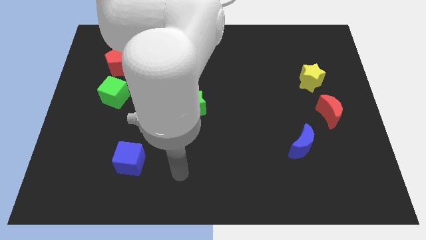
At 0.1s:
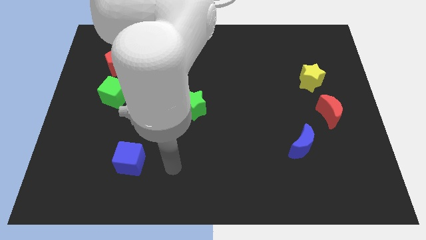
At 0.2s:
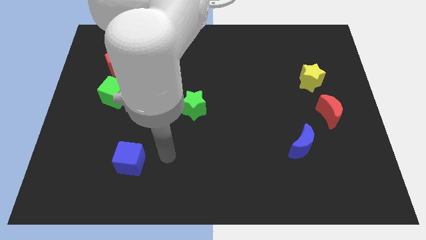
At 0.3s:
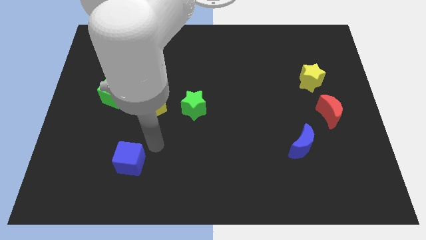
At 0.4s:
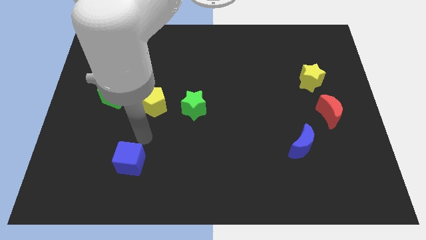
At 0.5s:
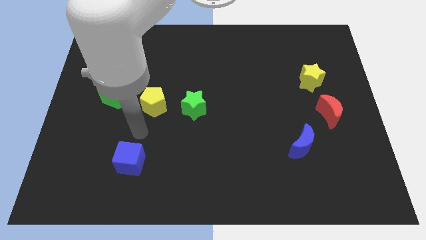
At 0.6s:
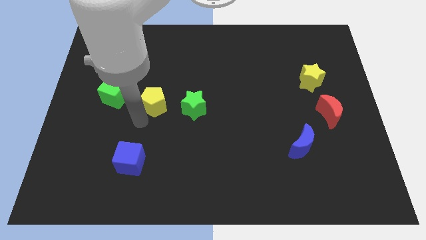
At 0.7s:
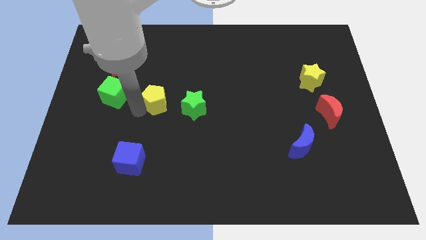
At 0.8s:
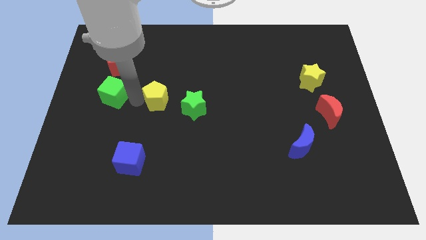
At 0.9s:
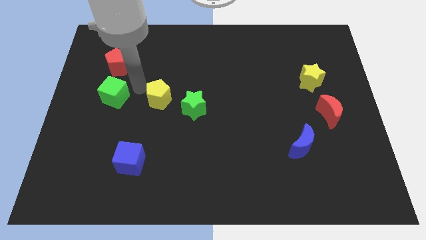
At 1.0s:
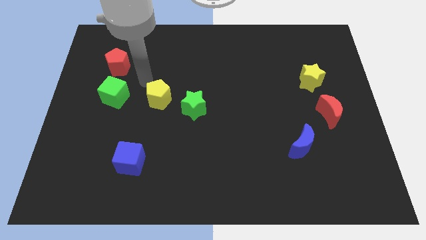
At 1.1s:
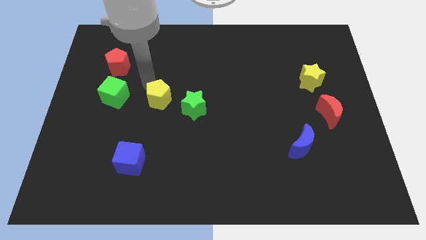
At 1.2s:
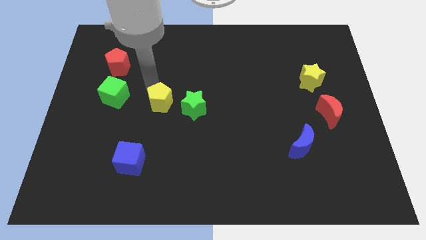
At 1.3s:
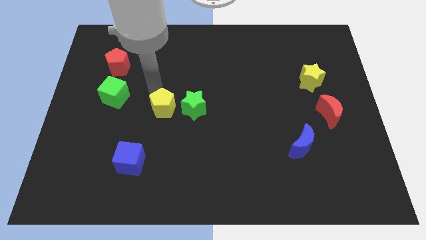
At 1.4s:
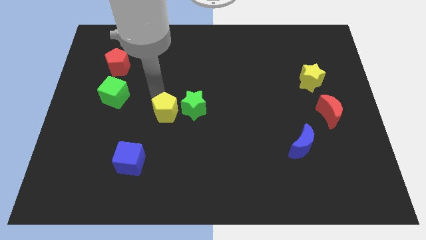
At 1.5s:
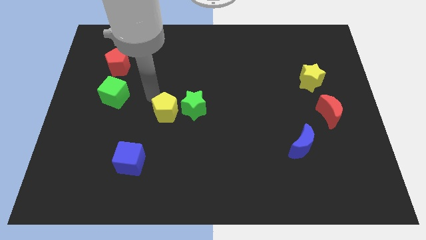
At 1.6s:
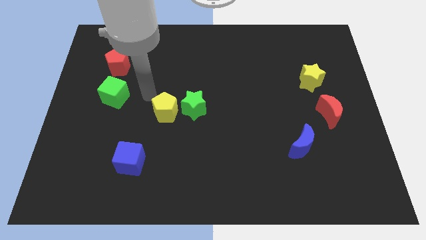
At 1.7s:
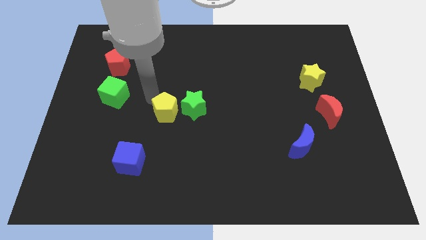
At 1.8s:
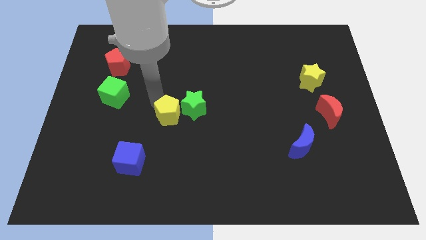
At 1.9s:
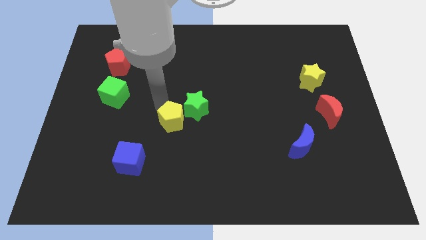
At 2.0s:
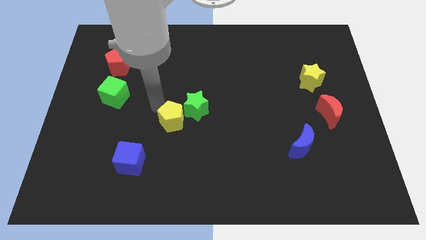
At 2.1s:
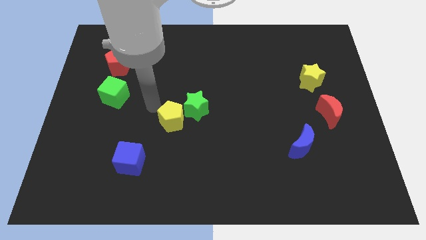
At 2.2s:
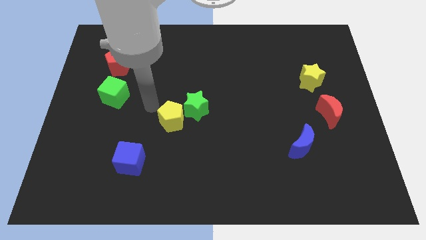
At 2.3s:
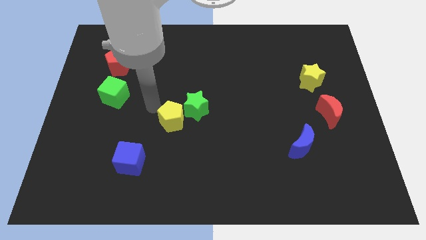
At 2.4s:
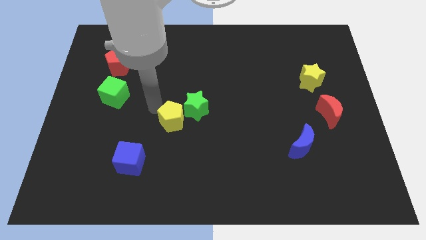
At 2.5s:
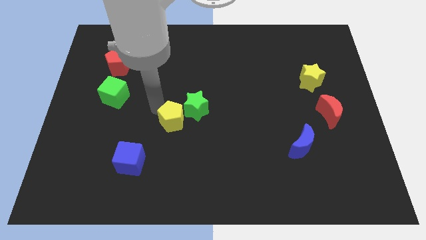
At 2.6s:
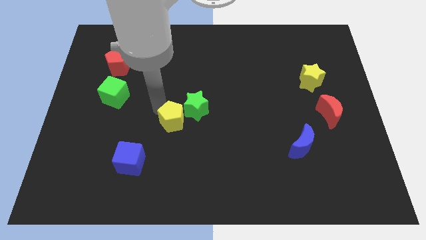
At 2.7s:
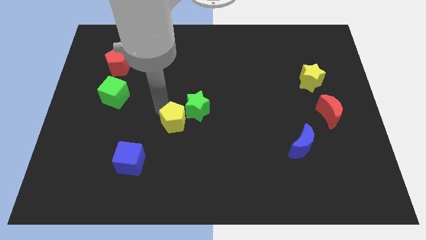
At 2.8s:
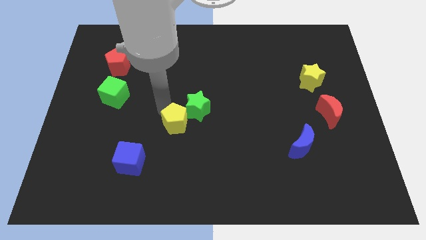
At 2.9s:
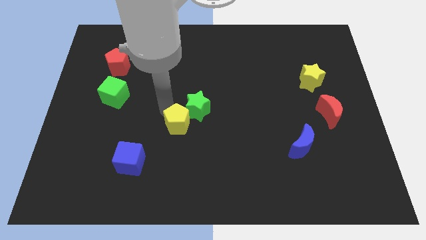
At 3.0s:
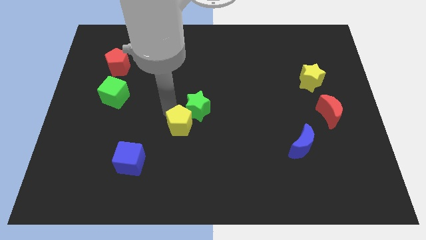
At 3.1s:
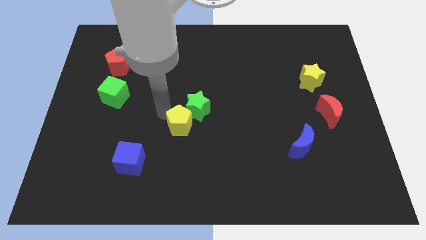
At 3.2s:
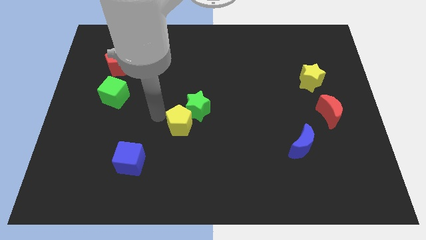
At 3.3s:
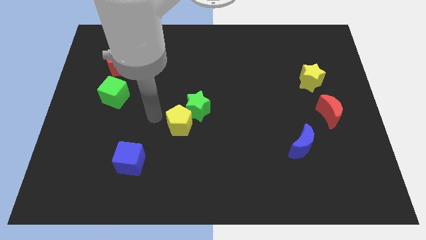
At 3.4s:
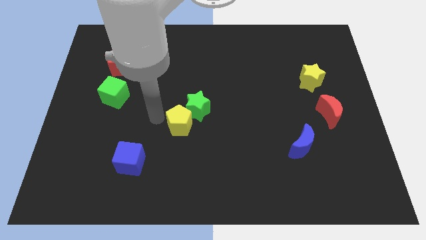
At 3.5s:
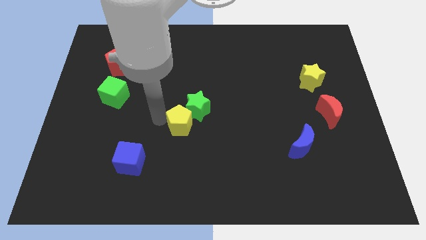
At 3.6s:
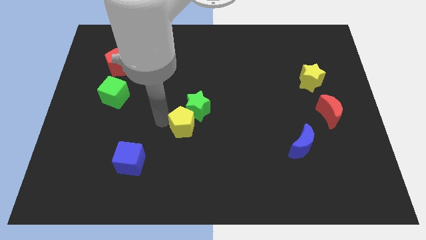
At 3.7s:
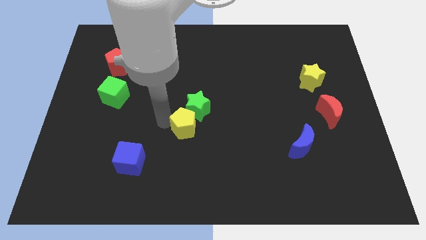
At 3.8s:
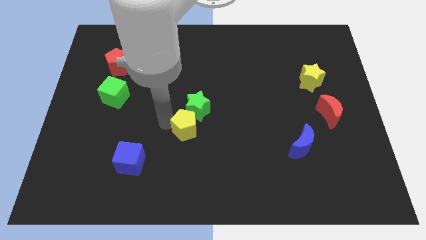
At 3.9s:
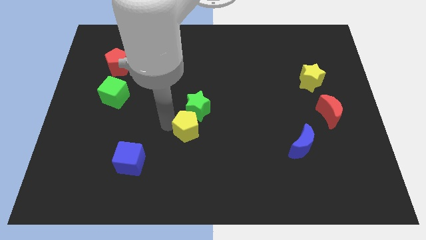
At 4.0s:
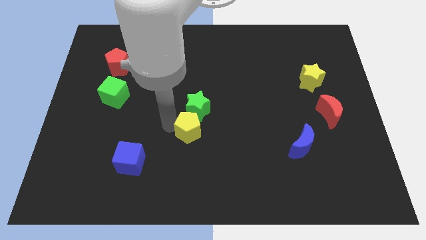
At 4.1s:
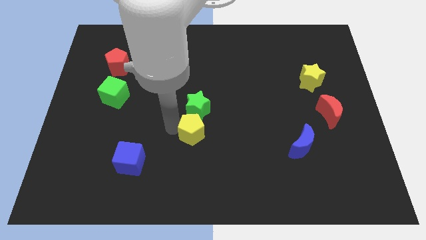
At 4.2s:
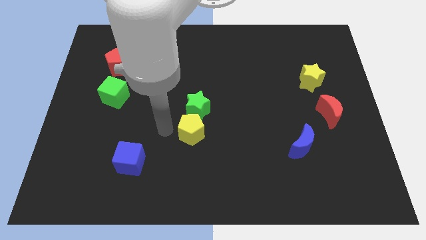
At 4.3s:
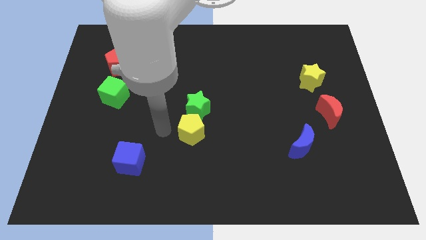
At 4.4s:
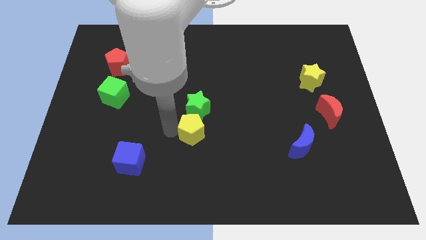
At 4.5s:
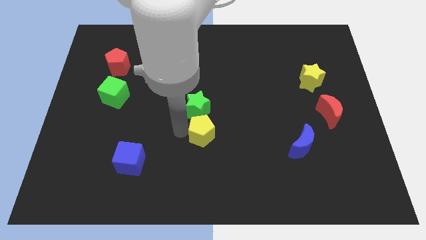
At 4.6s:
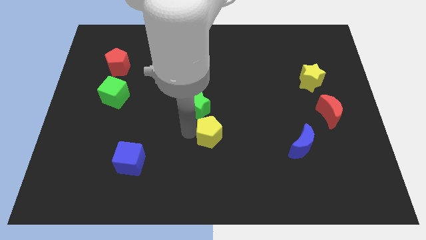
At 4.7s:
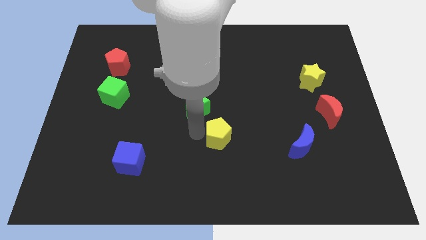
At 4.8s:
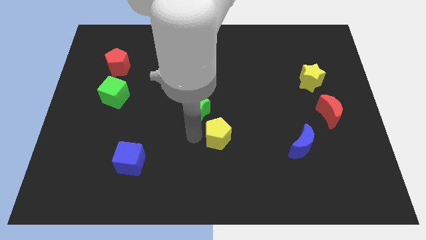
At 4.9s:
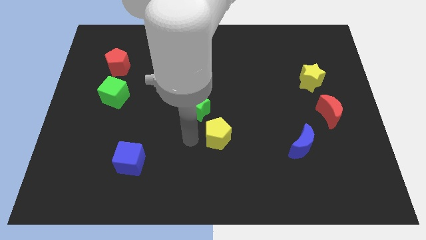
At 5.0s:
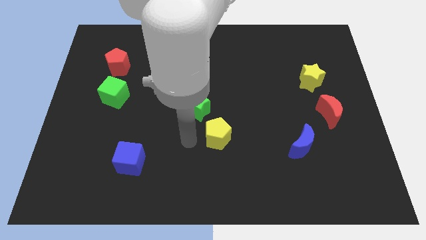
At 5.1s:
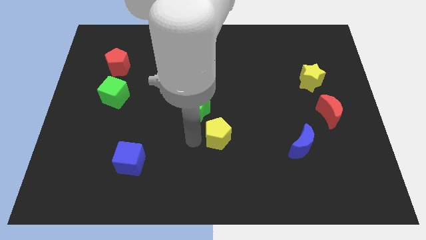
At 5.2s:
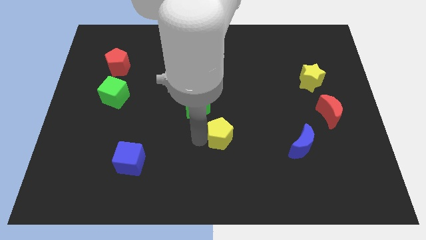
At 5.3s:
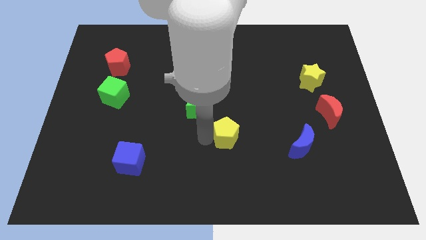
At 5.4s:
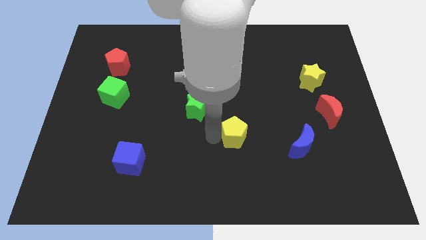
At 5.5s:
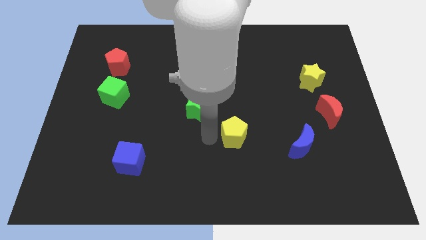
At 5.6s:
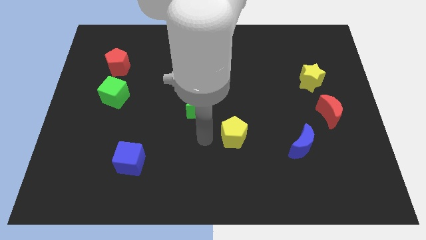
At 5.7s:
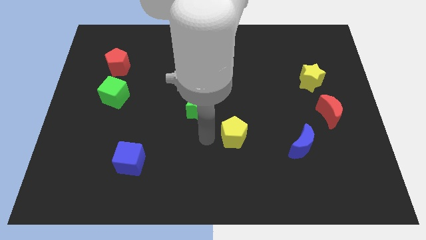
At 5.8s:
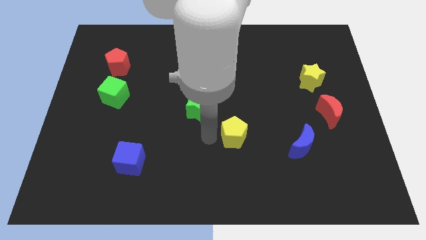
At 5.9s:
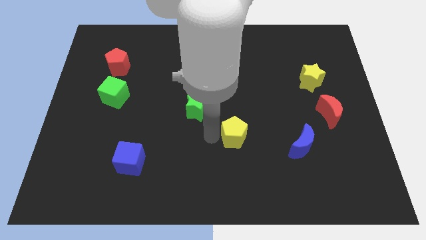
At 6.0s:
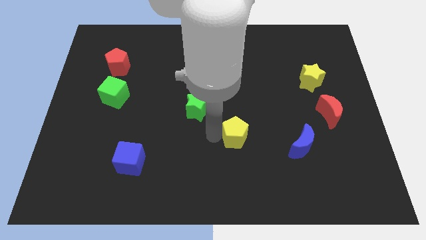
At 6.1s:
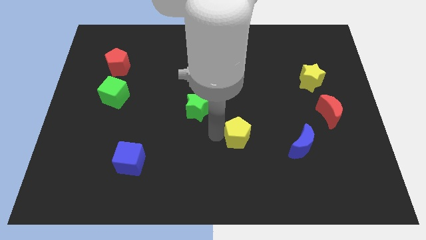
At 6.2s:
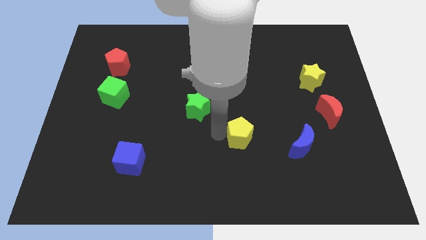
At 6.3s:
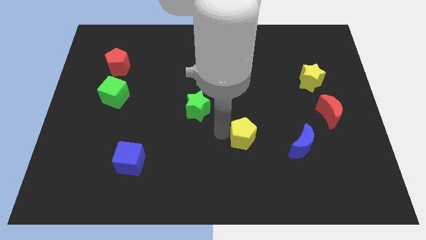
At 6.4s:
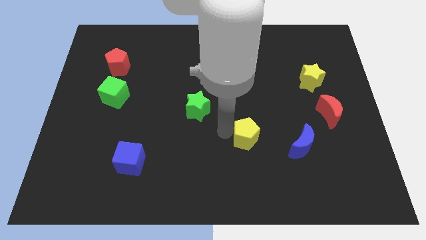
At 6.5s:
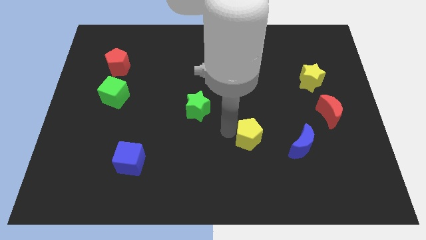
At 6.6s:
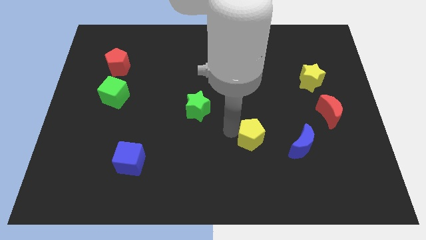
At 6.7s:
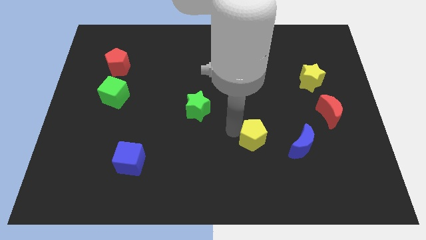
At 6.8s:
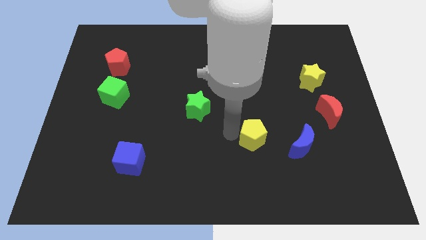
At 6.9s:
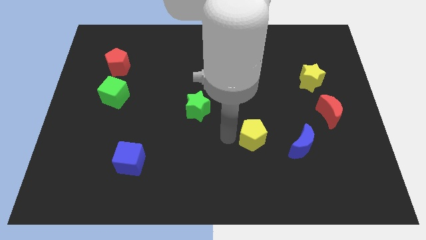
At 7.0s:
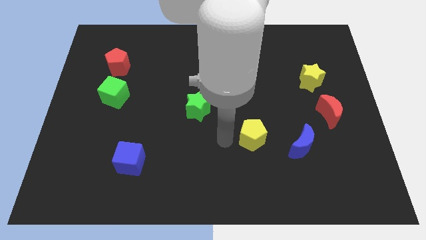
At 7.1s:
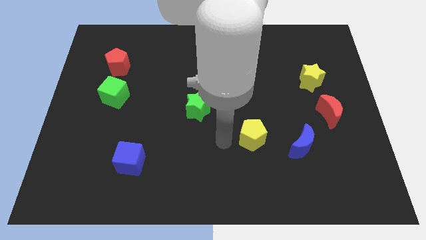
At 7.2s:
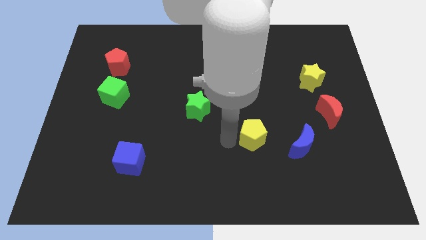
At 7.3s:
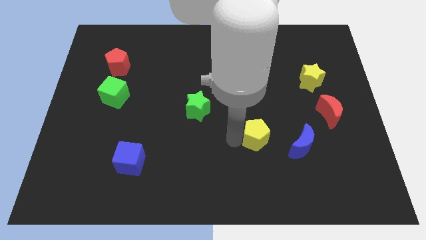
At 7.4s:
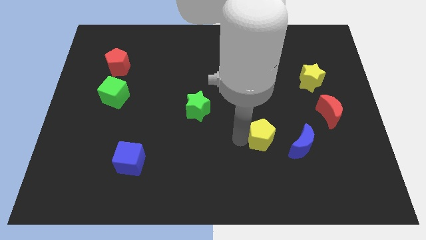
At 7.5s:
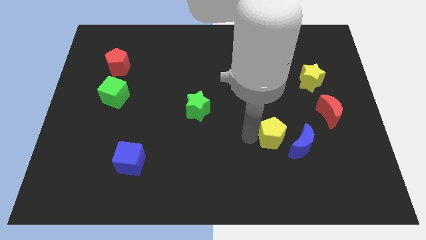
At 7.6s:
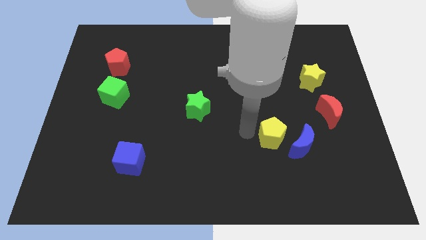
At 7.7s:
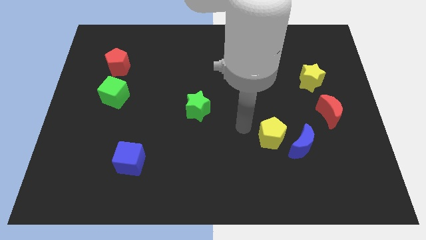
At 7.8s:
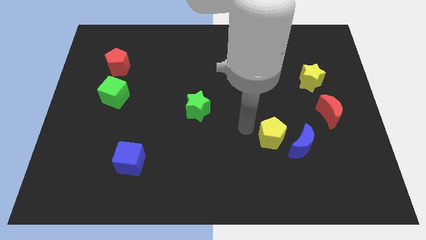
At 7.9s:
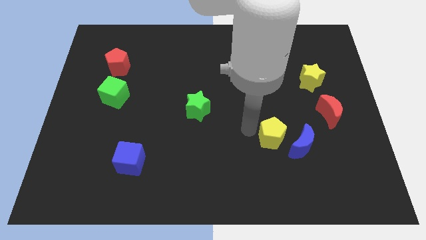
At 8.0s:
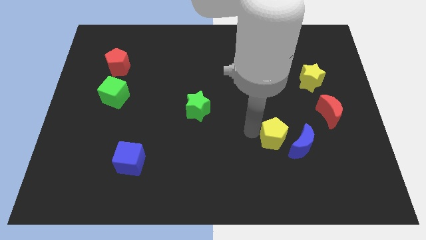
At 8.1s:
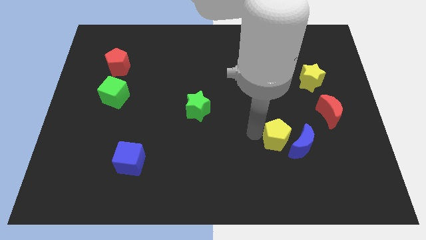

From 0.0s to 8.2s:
put the yellow pentagon to the blue moon
